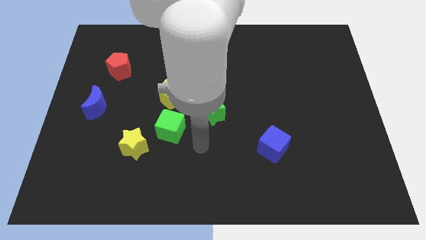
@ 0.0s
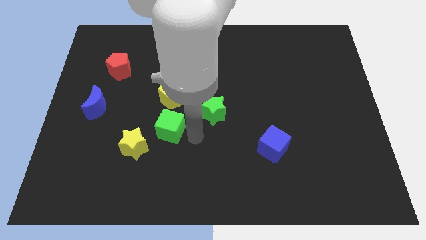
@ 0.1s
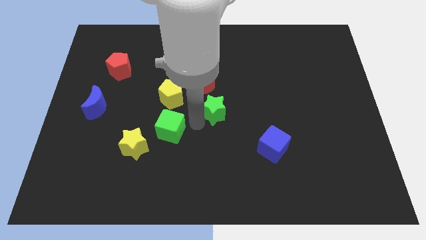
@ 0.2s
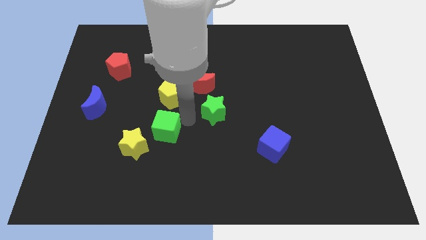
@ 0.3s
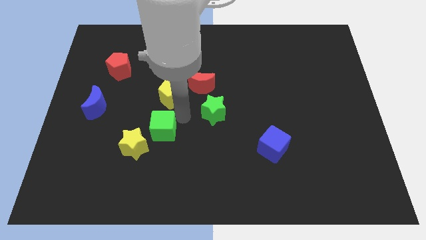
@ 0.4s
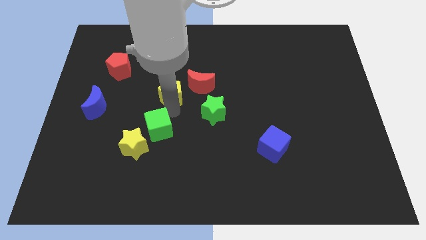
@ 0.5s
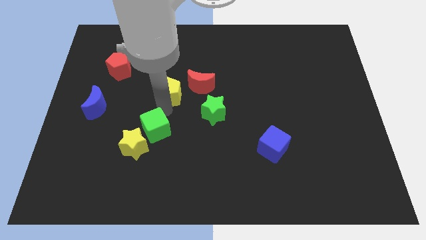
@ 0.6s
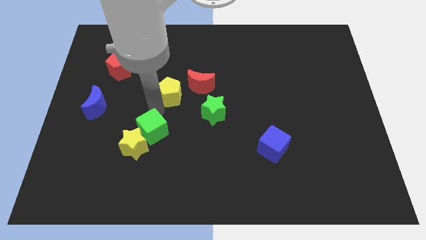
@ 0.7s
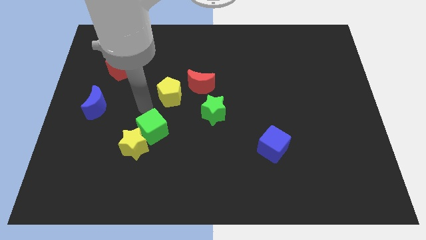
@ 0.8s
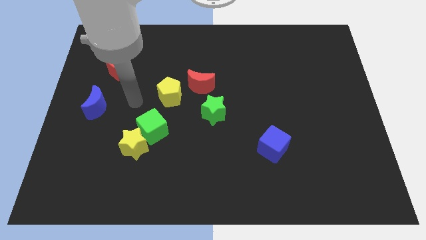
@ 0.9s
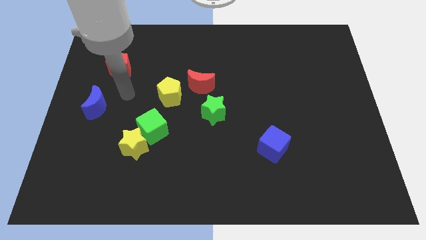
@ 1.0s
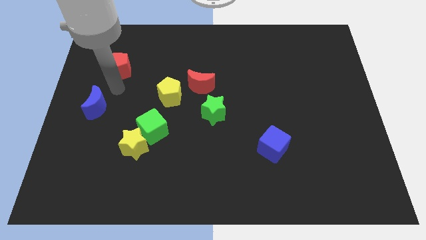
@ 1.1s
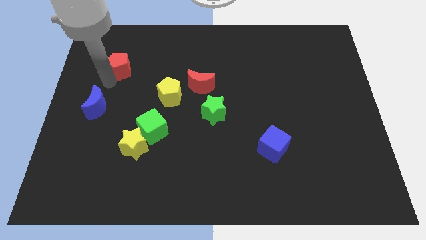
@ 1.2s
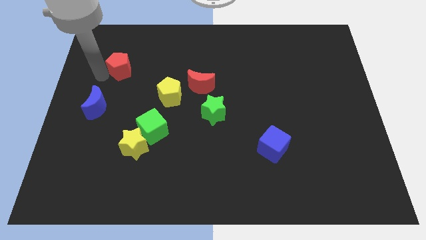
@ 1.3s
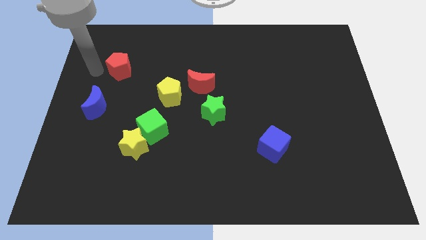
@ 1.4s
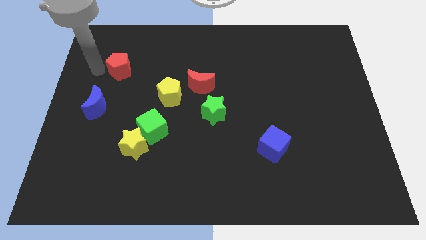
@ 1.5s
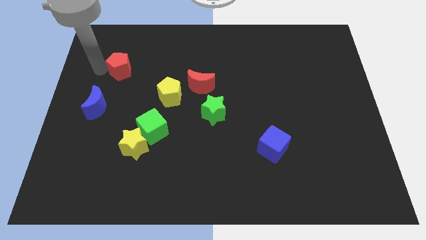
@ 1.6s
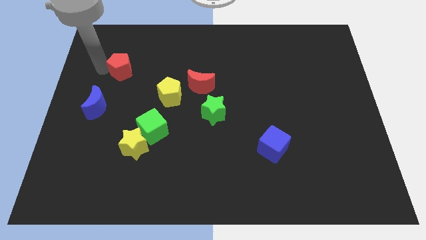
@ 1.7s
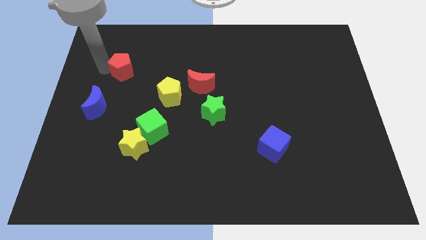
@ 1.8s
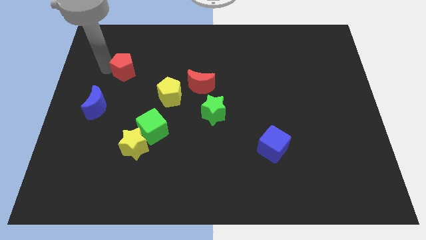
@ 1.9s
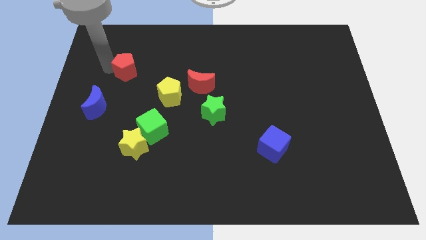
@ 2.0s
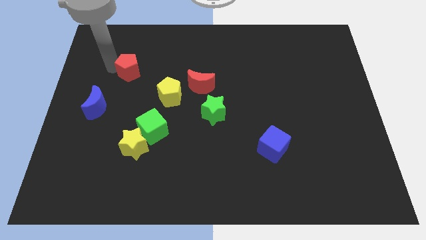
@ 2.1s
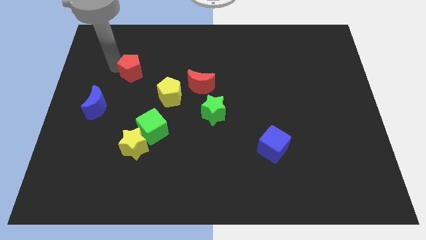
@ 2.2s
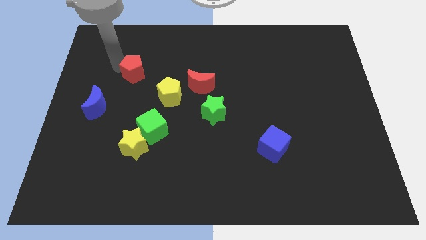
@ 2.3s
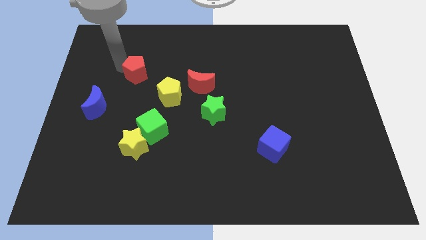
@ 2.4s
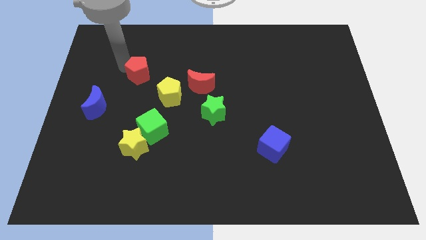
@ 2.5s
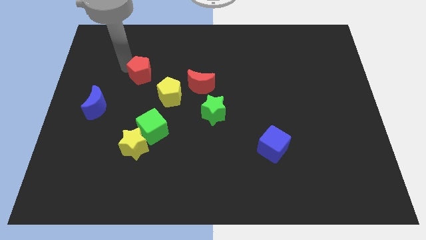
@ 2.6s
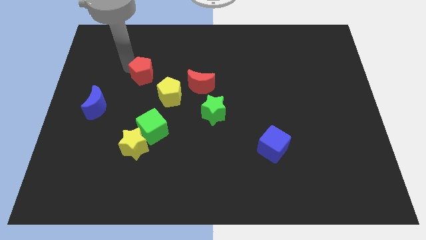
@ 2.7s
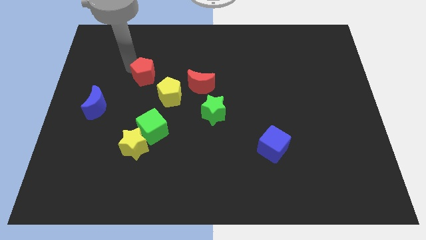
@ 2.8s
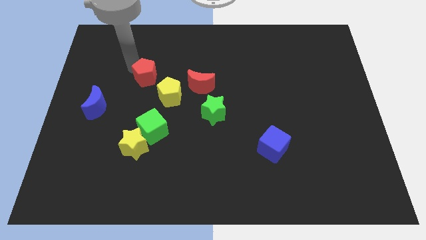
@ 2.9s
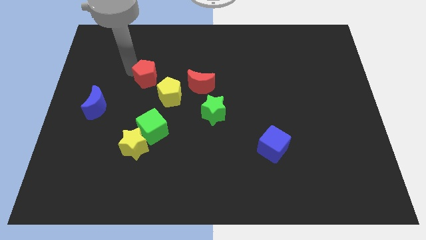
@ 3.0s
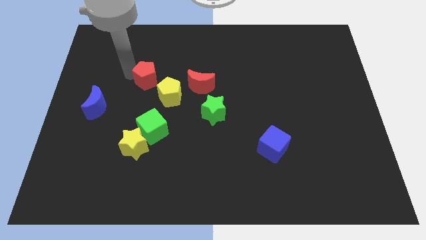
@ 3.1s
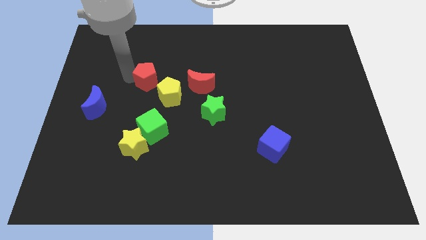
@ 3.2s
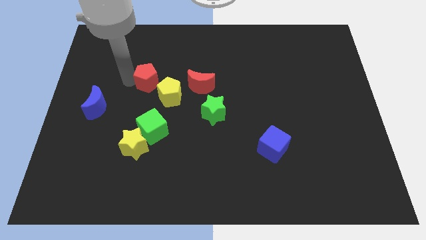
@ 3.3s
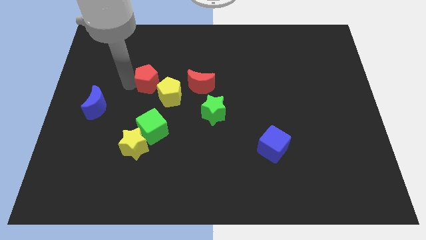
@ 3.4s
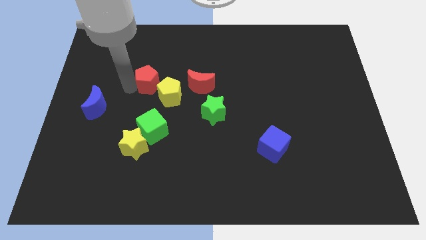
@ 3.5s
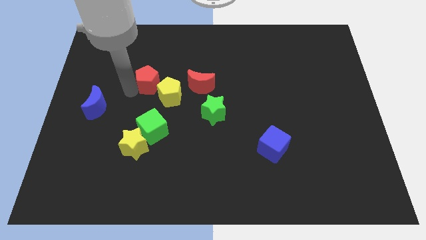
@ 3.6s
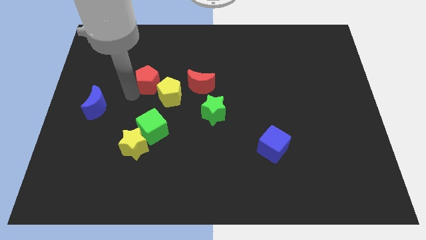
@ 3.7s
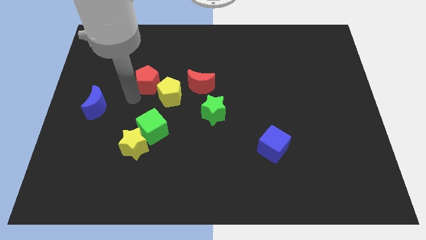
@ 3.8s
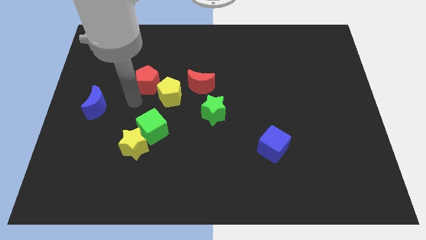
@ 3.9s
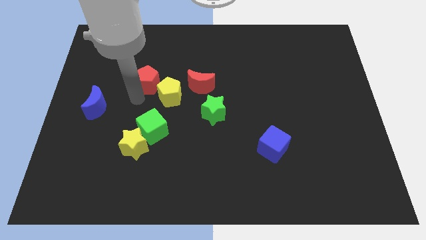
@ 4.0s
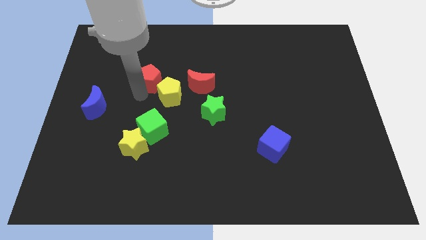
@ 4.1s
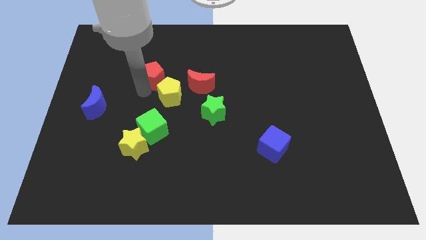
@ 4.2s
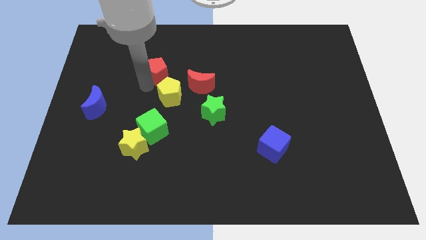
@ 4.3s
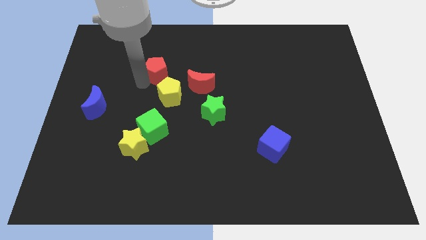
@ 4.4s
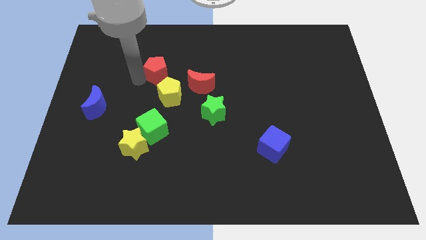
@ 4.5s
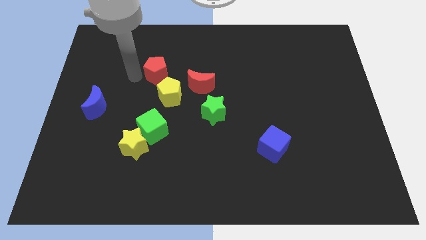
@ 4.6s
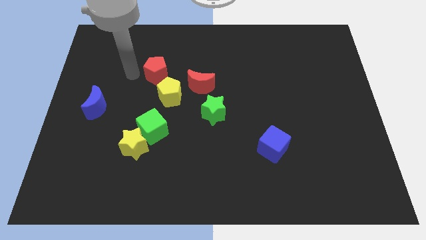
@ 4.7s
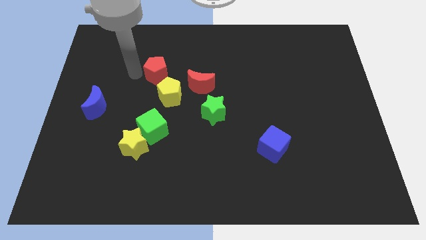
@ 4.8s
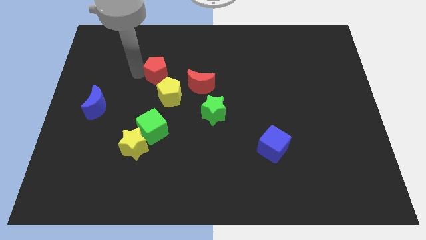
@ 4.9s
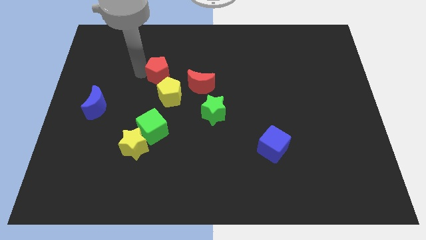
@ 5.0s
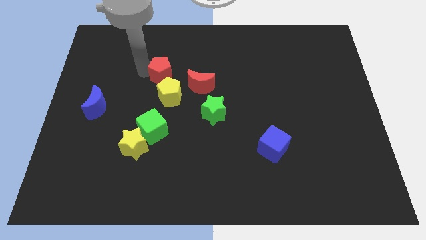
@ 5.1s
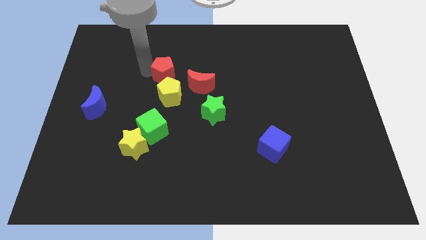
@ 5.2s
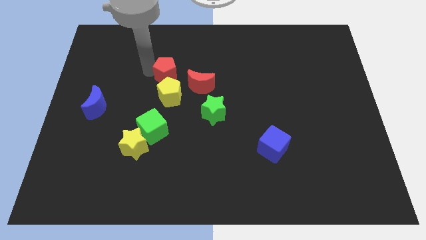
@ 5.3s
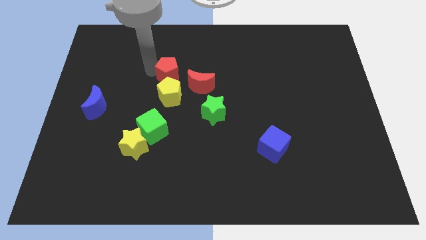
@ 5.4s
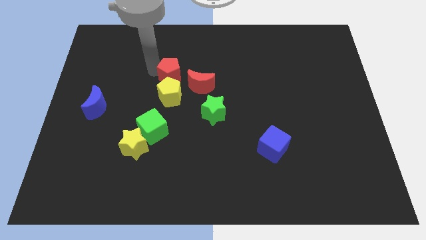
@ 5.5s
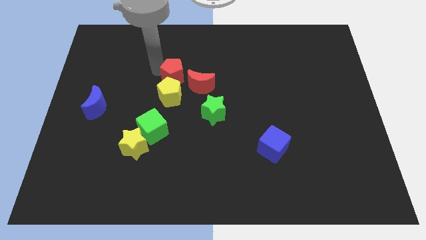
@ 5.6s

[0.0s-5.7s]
put the red pentagon to the middle

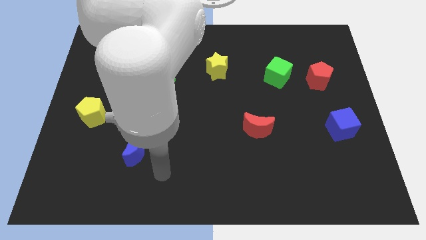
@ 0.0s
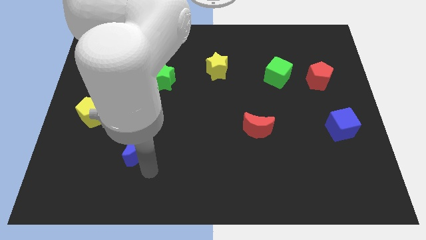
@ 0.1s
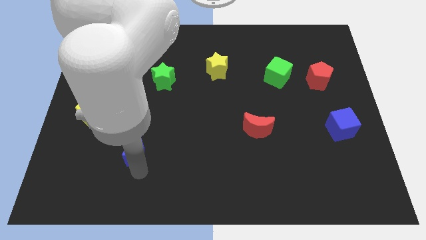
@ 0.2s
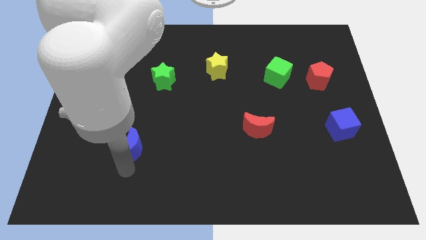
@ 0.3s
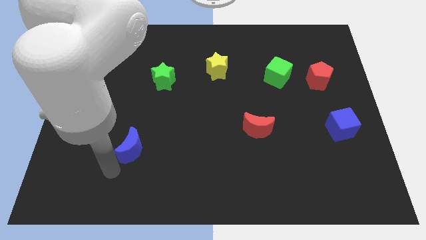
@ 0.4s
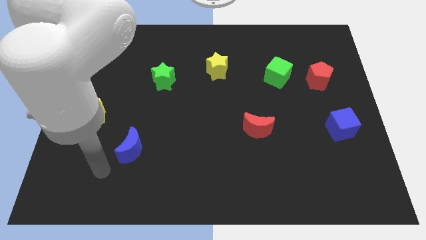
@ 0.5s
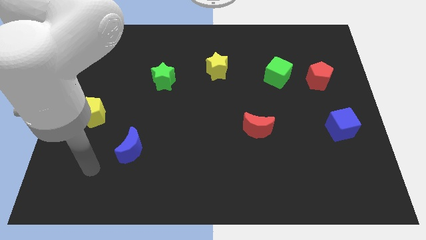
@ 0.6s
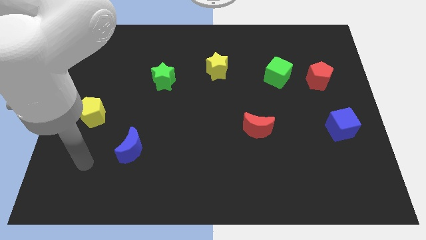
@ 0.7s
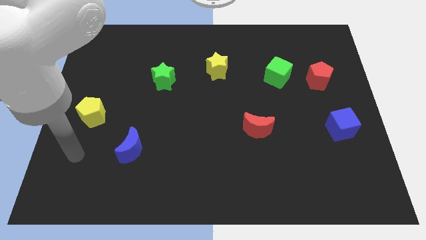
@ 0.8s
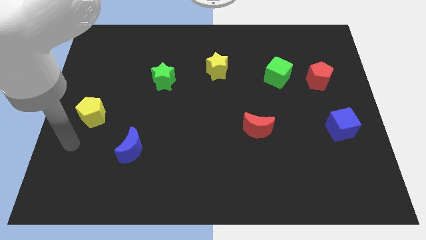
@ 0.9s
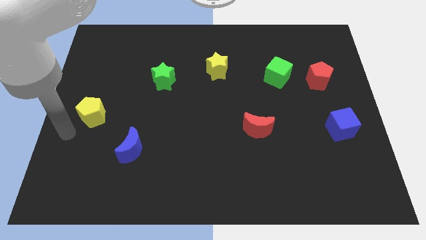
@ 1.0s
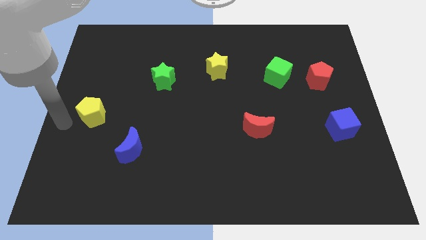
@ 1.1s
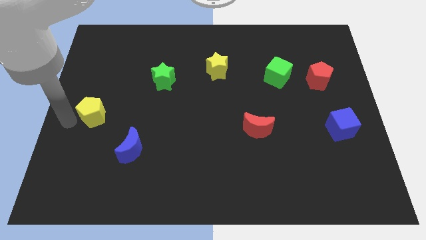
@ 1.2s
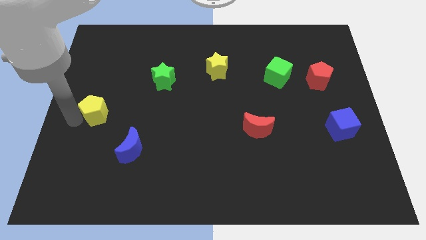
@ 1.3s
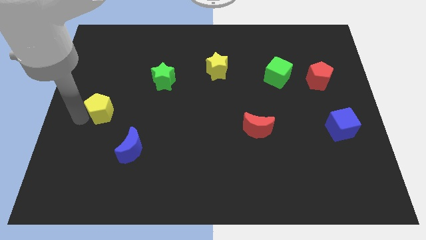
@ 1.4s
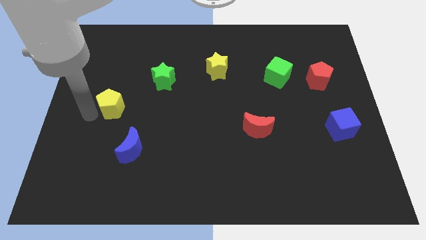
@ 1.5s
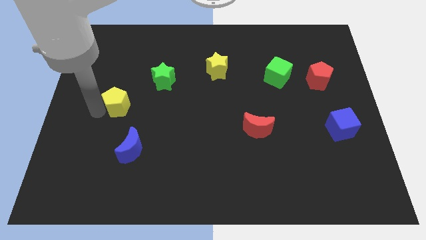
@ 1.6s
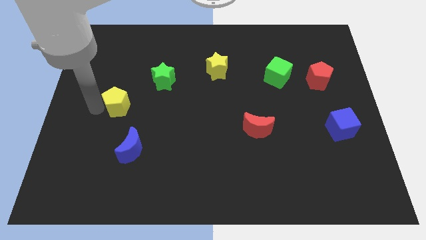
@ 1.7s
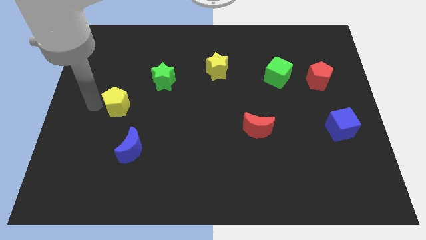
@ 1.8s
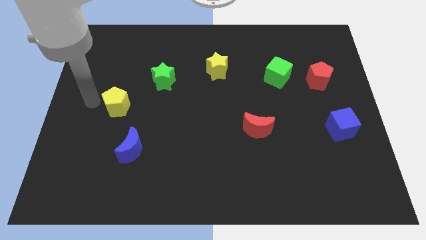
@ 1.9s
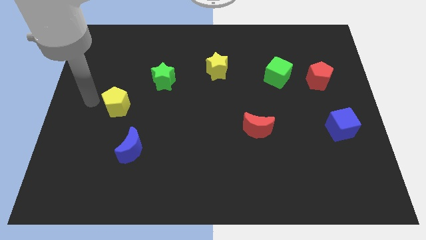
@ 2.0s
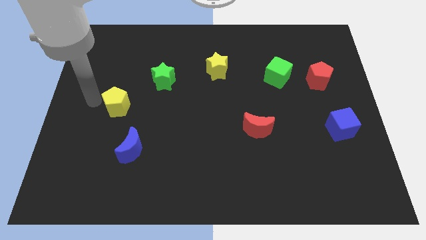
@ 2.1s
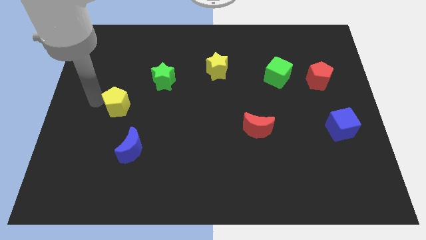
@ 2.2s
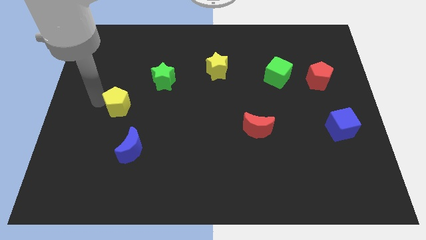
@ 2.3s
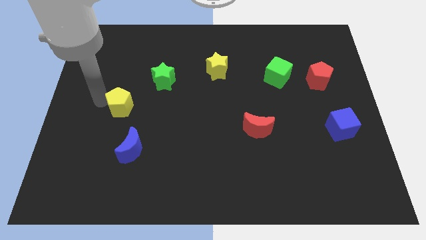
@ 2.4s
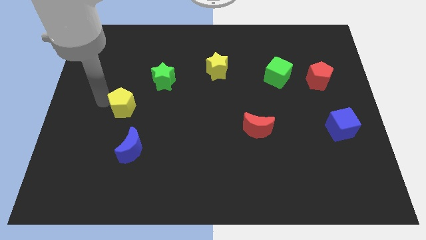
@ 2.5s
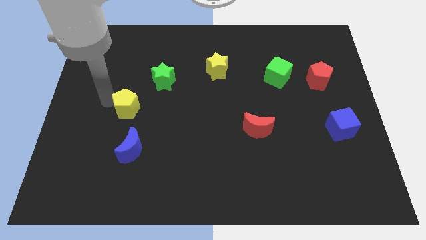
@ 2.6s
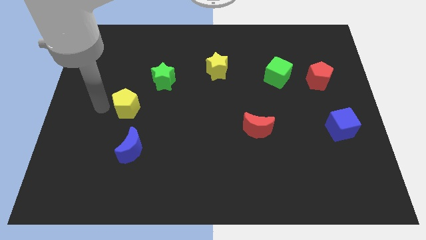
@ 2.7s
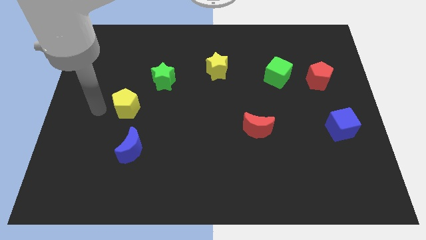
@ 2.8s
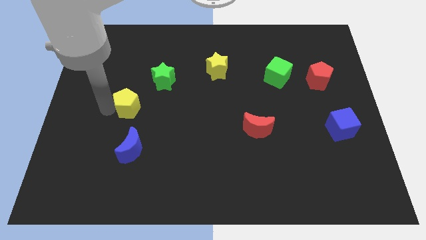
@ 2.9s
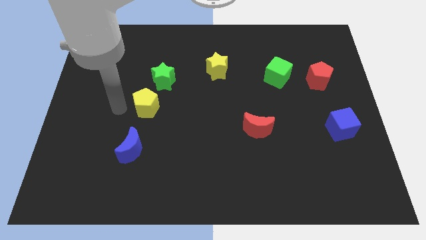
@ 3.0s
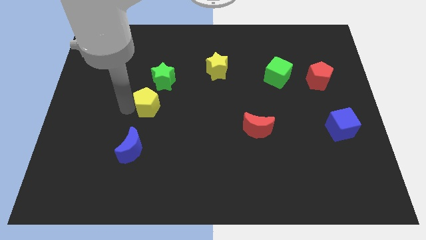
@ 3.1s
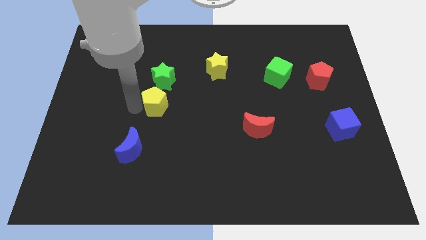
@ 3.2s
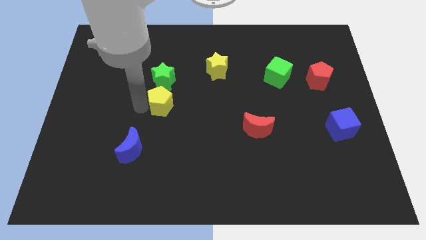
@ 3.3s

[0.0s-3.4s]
slide the yellow pentagon to the center
